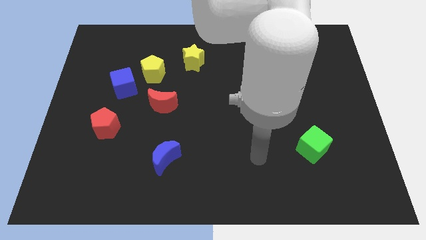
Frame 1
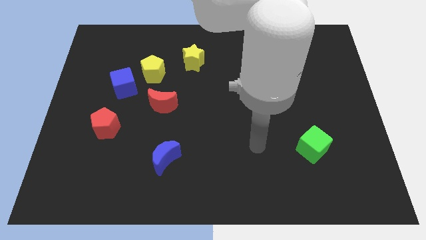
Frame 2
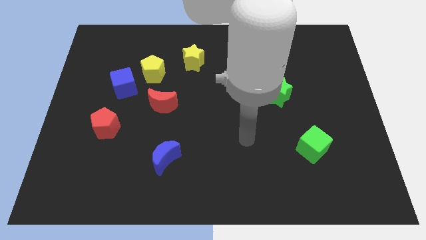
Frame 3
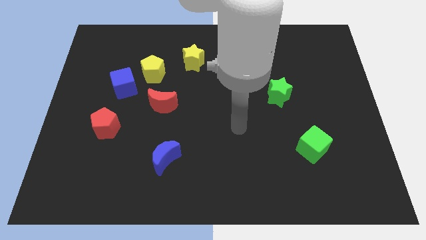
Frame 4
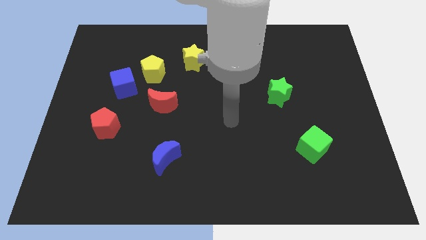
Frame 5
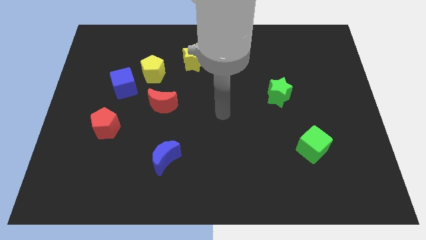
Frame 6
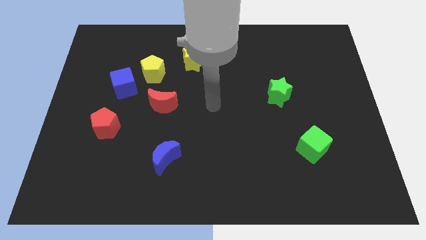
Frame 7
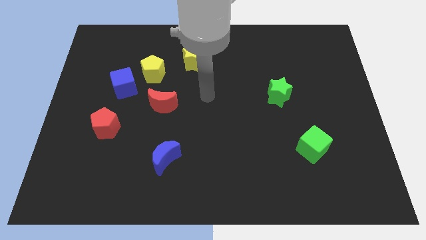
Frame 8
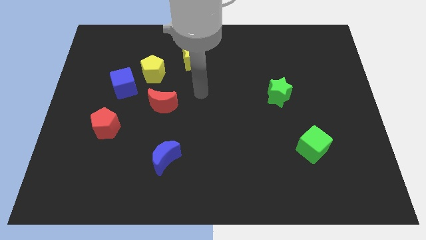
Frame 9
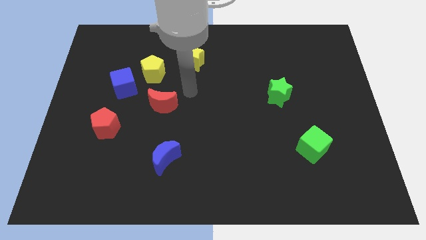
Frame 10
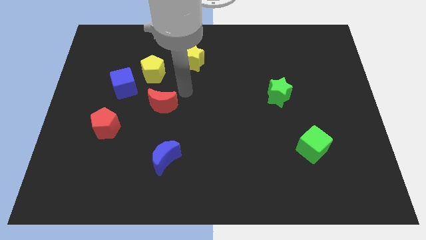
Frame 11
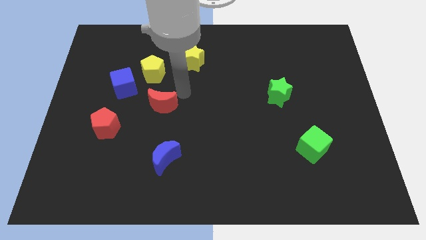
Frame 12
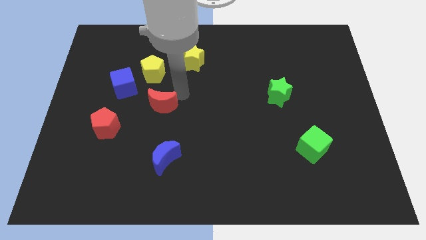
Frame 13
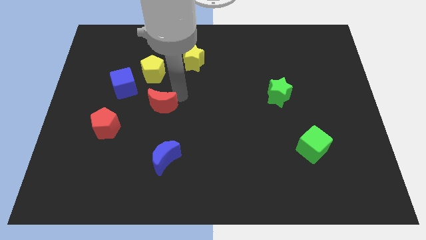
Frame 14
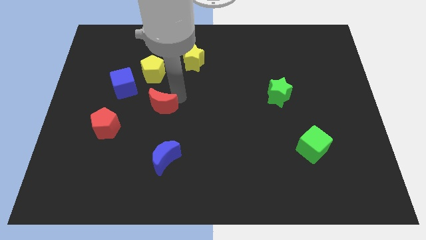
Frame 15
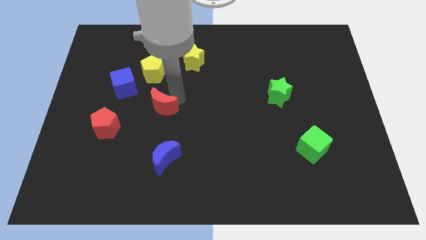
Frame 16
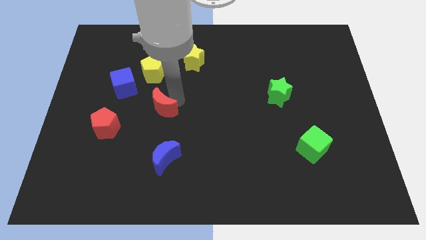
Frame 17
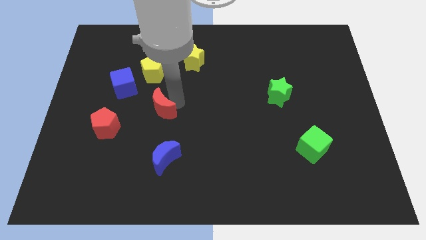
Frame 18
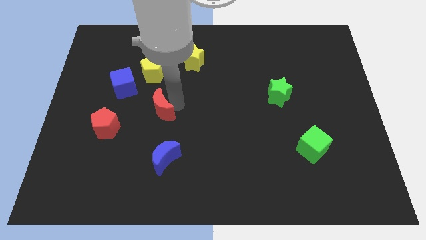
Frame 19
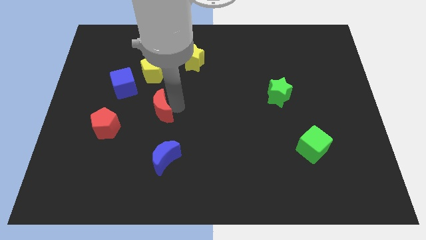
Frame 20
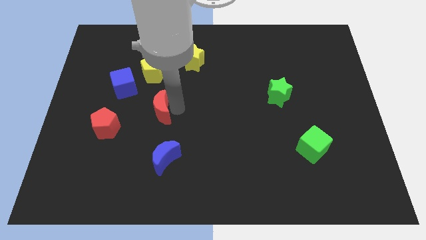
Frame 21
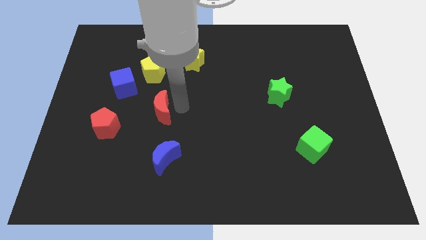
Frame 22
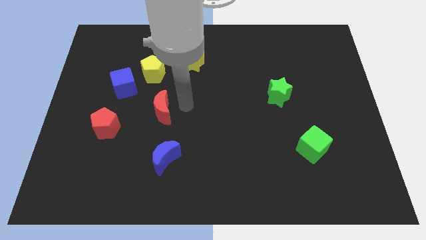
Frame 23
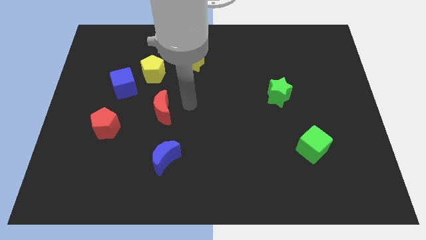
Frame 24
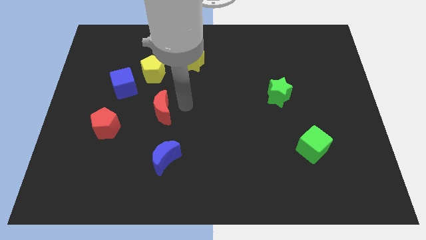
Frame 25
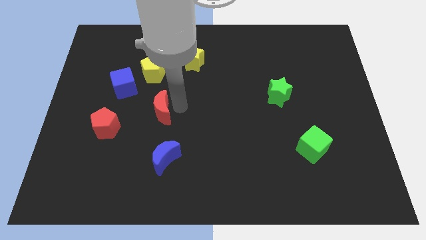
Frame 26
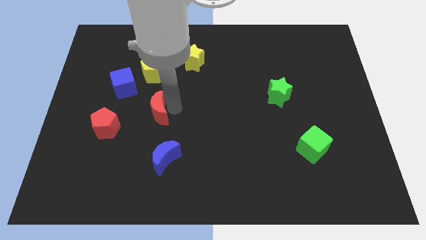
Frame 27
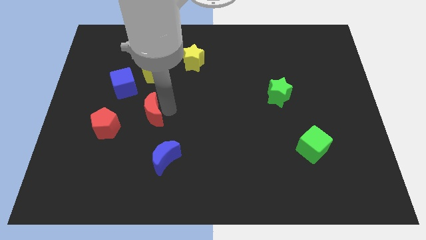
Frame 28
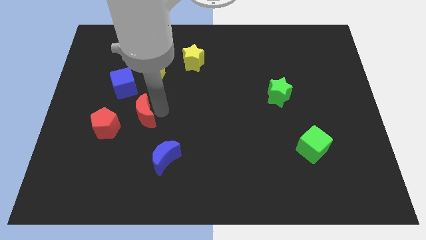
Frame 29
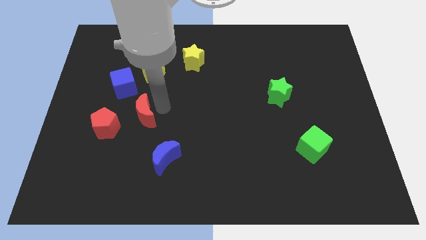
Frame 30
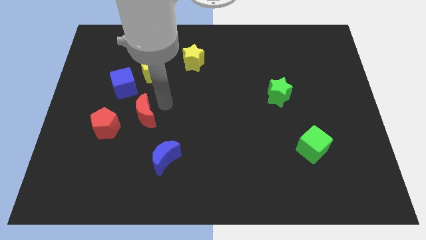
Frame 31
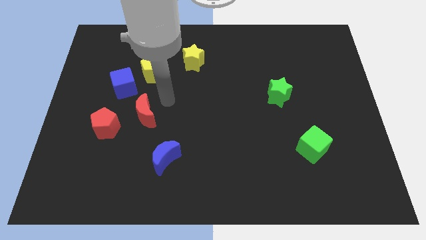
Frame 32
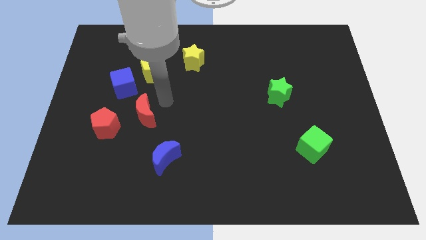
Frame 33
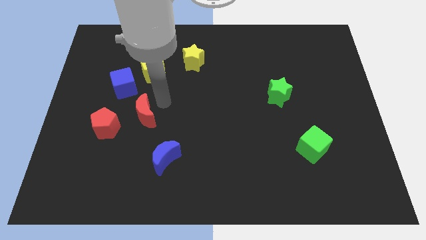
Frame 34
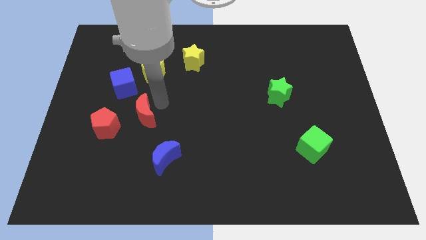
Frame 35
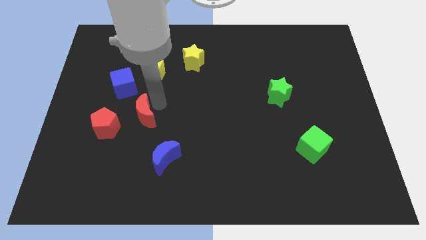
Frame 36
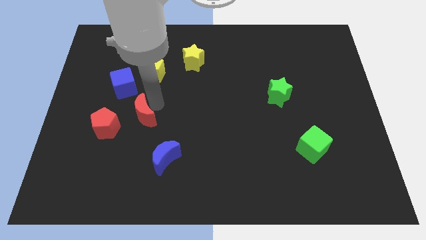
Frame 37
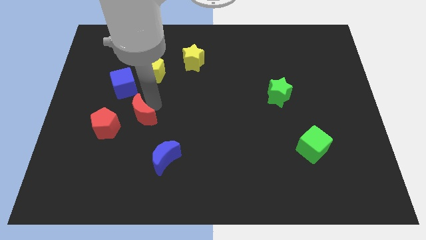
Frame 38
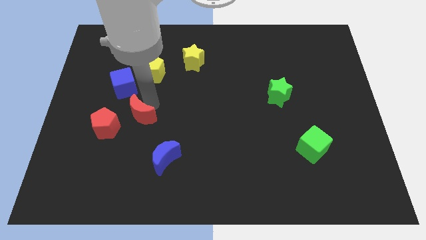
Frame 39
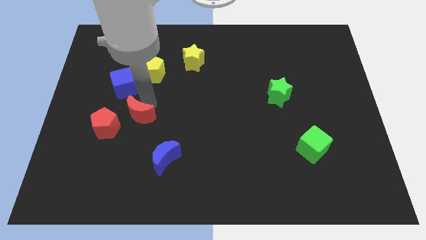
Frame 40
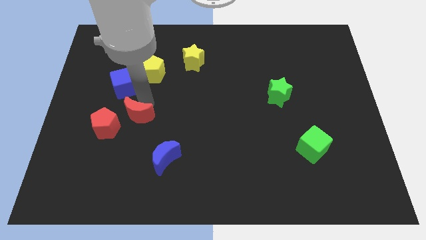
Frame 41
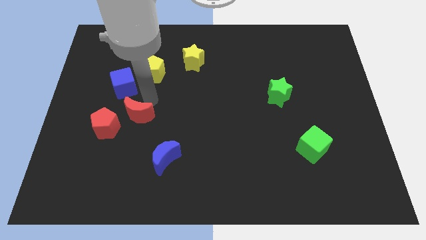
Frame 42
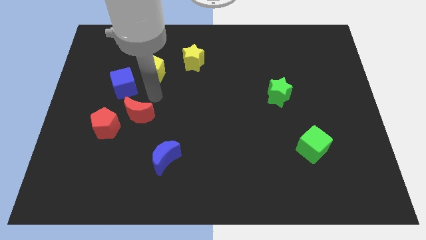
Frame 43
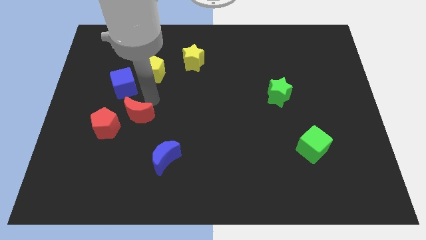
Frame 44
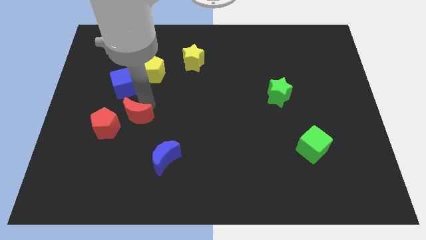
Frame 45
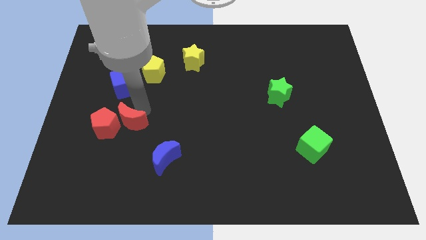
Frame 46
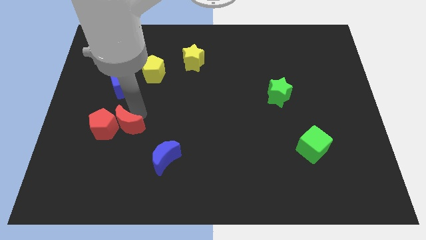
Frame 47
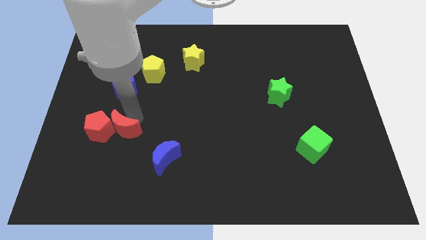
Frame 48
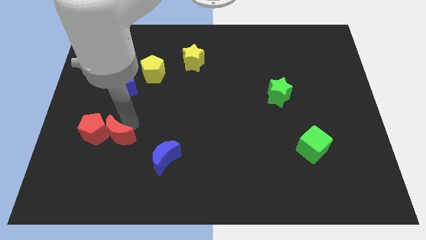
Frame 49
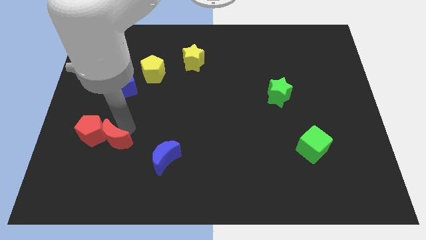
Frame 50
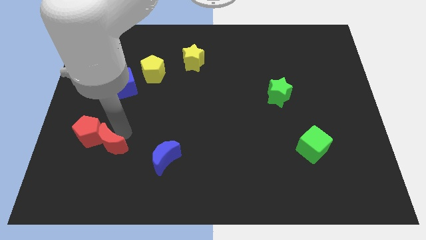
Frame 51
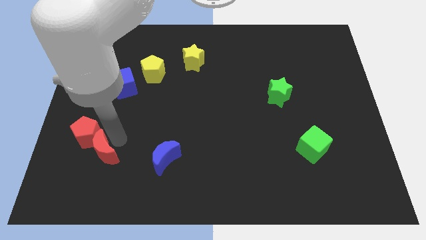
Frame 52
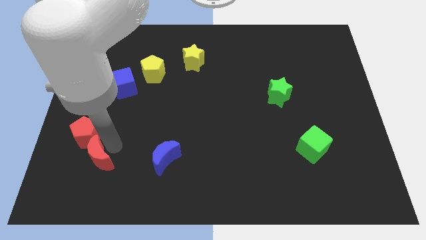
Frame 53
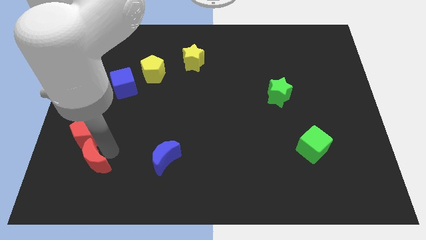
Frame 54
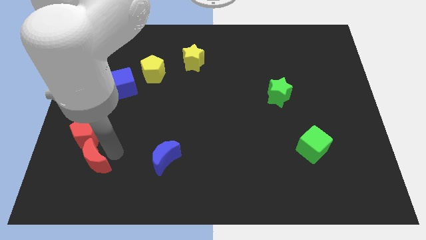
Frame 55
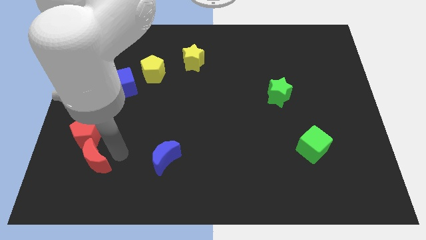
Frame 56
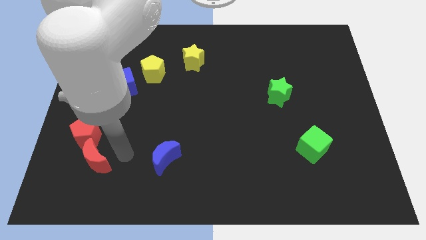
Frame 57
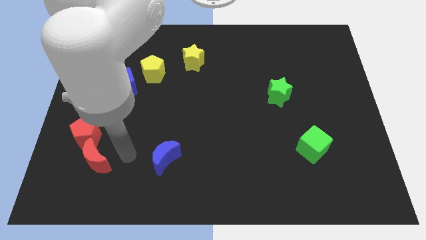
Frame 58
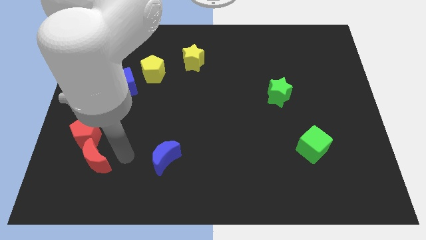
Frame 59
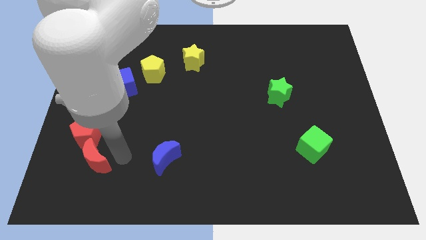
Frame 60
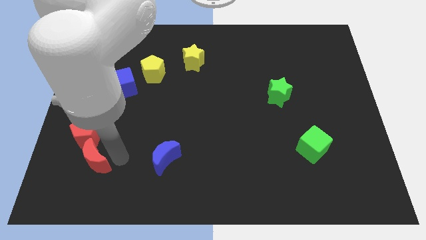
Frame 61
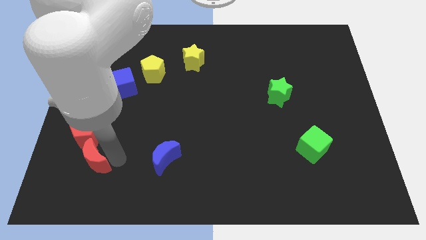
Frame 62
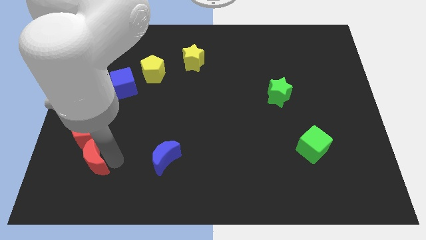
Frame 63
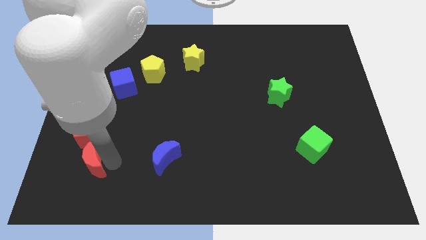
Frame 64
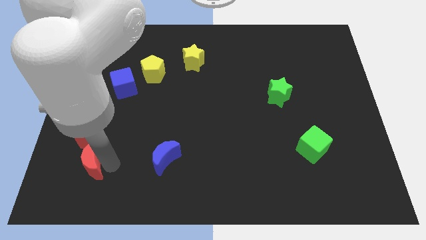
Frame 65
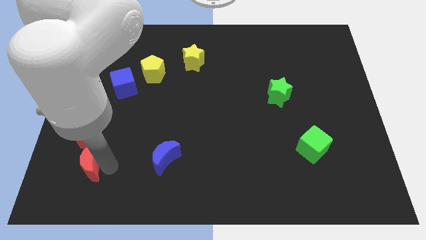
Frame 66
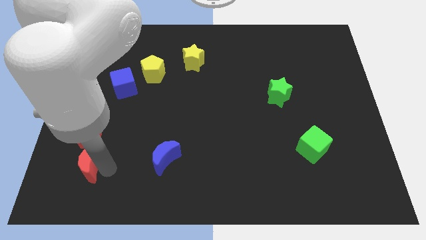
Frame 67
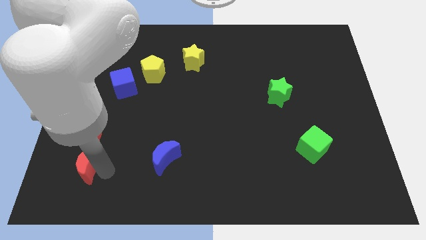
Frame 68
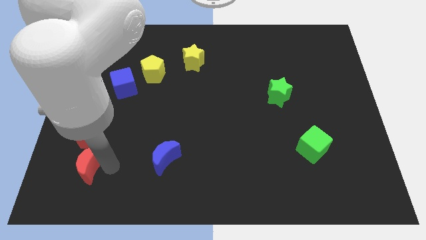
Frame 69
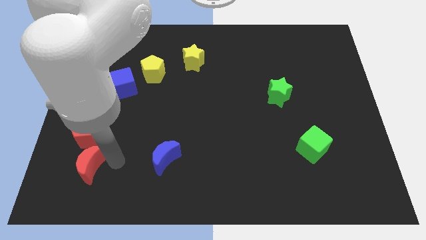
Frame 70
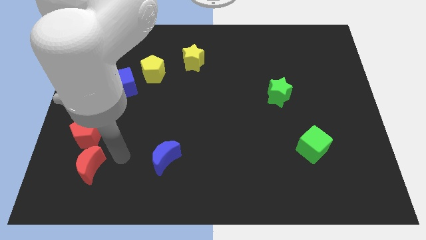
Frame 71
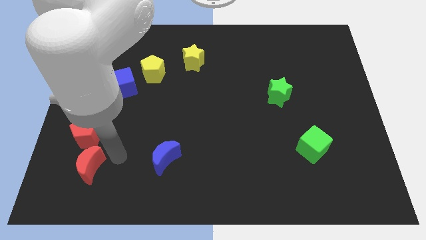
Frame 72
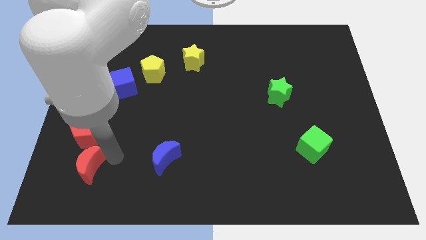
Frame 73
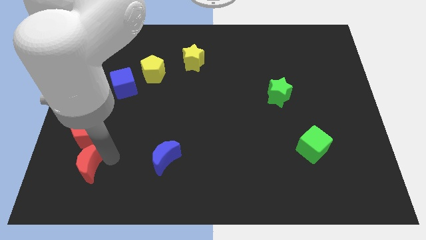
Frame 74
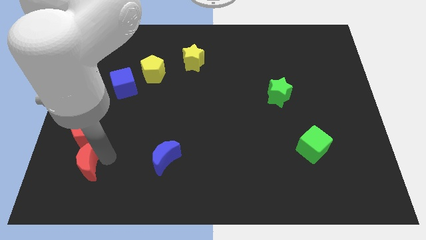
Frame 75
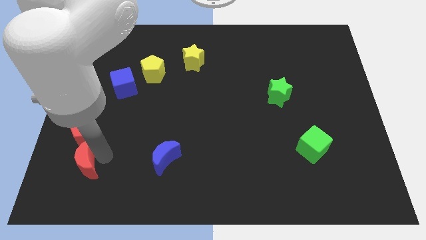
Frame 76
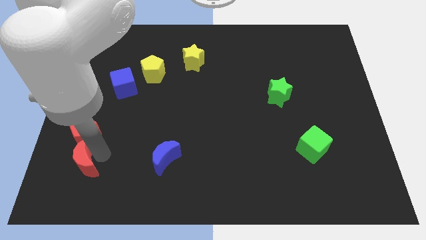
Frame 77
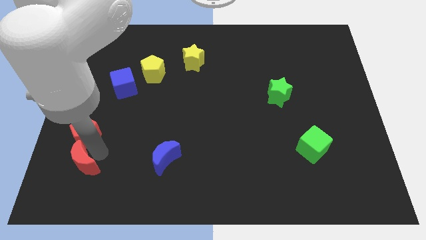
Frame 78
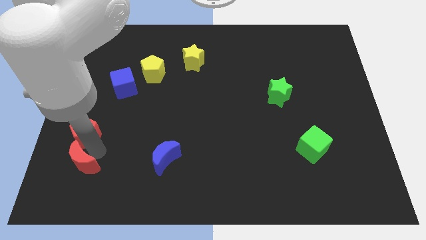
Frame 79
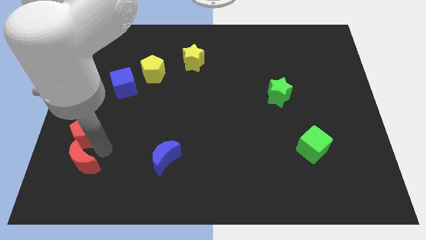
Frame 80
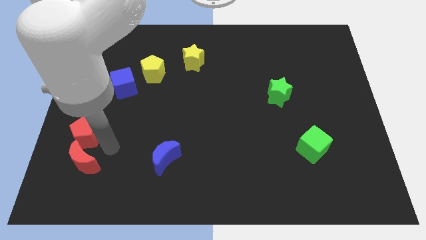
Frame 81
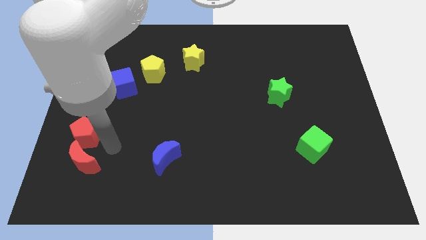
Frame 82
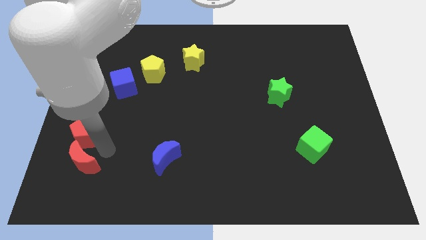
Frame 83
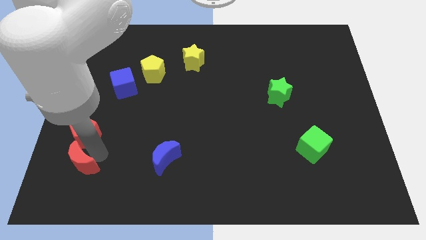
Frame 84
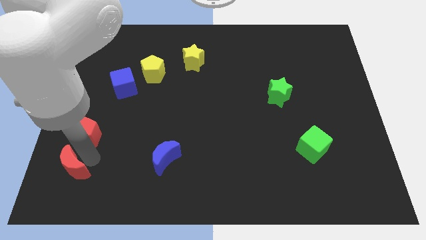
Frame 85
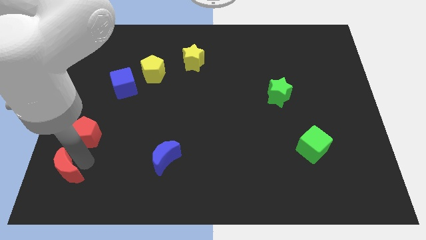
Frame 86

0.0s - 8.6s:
put the red moon to the bottom left corner
